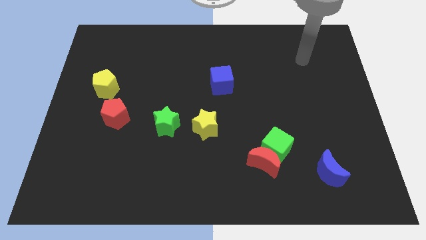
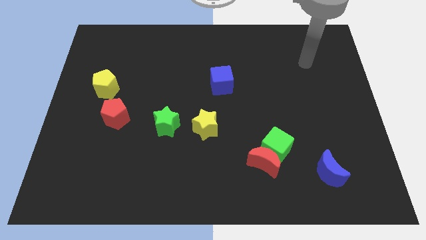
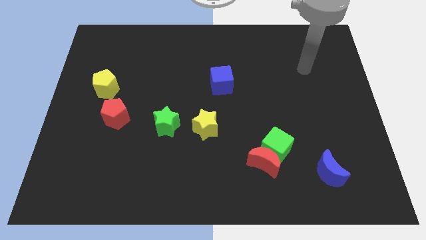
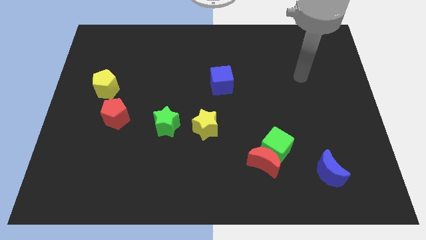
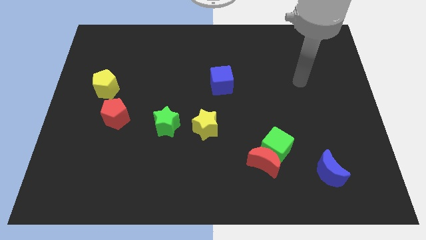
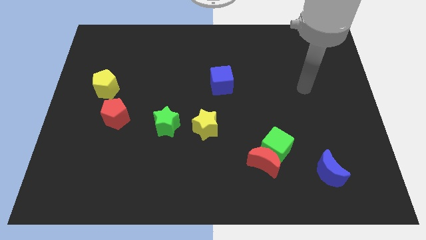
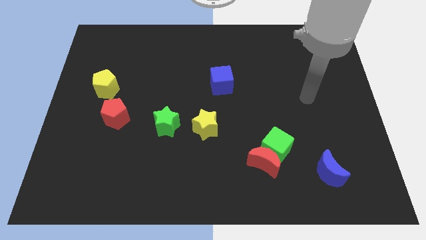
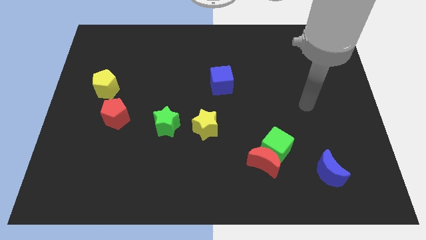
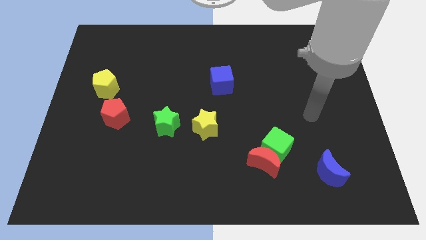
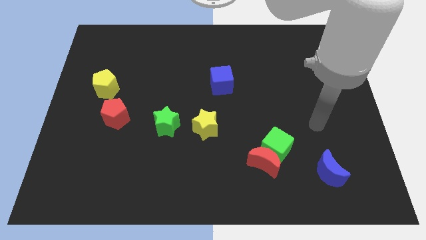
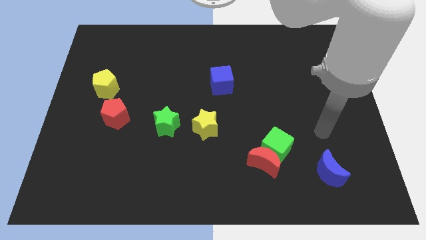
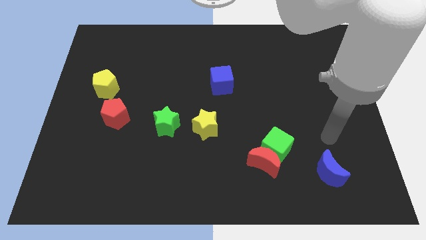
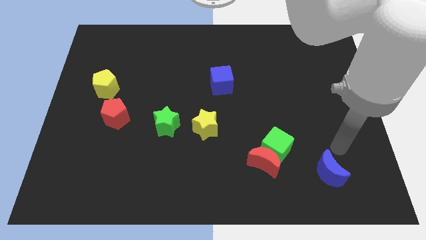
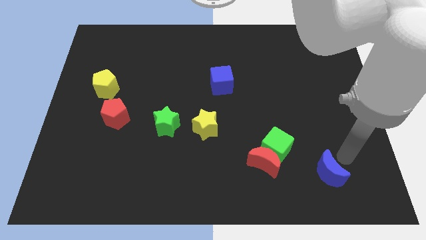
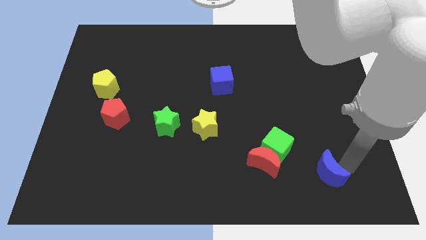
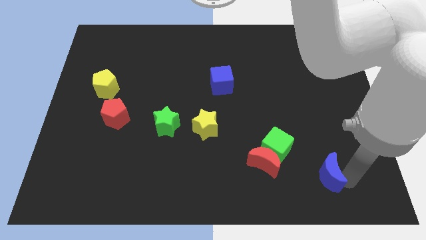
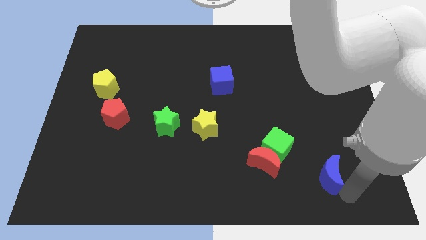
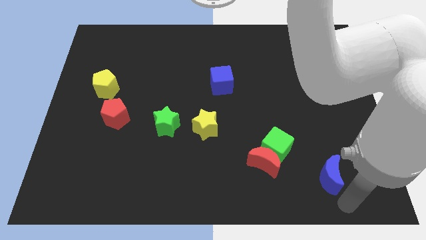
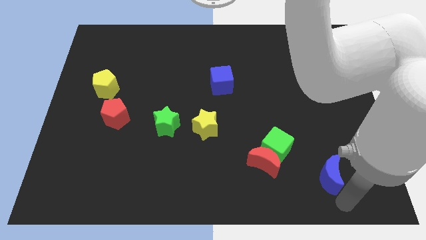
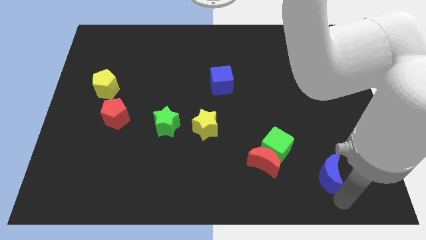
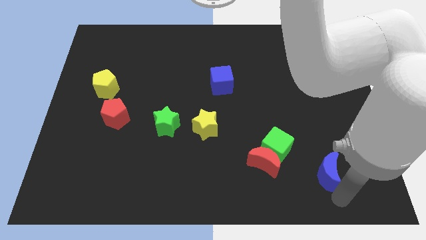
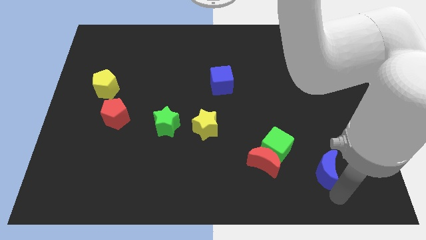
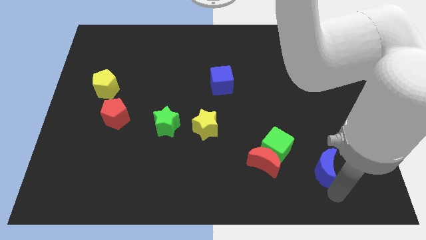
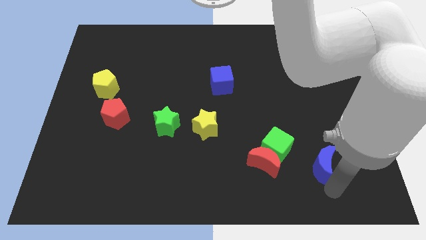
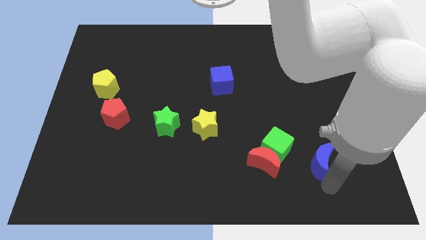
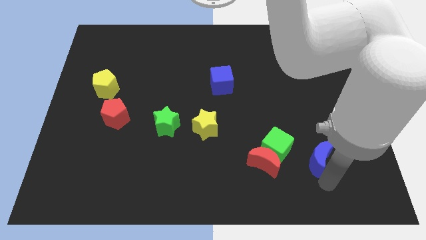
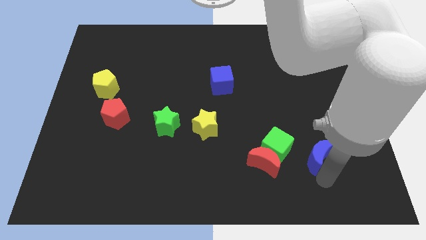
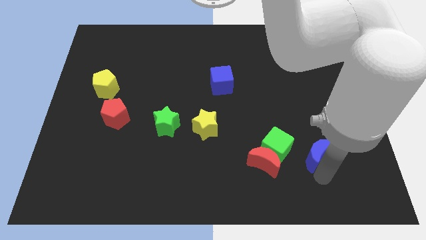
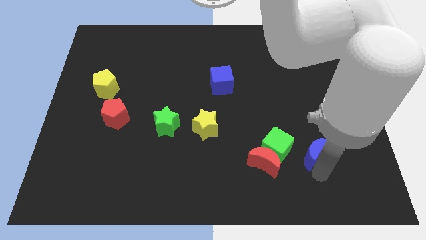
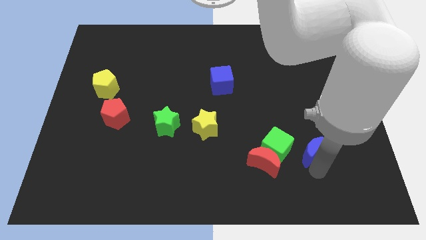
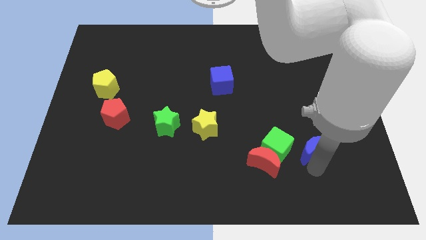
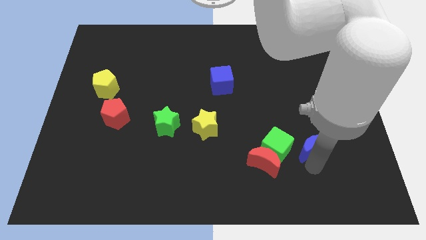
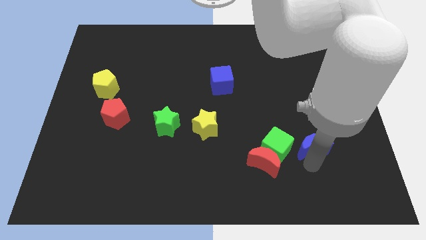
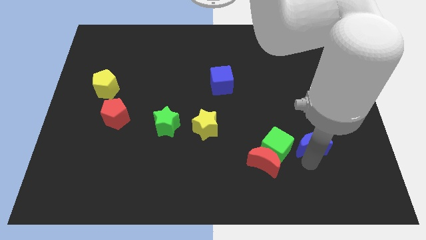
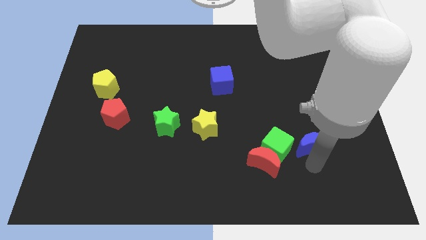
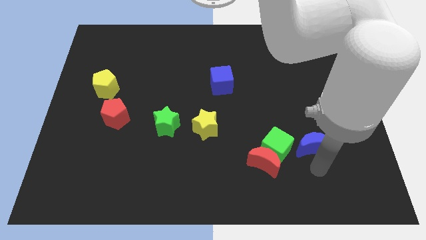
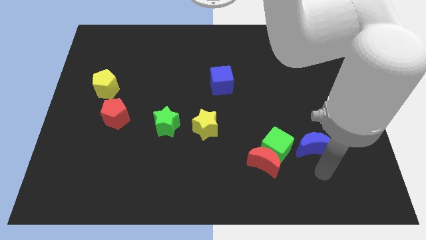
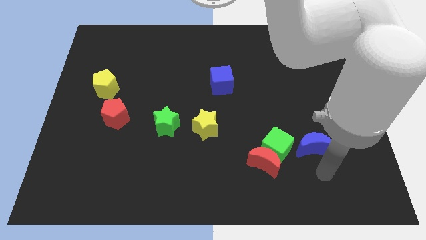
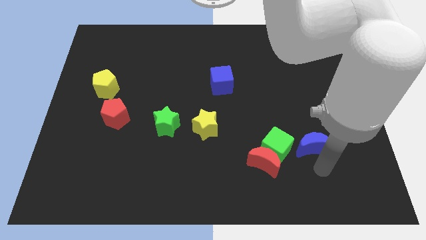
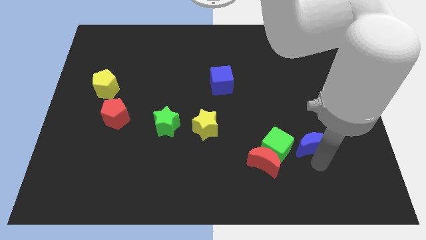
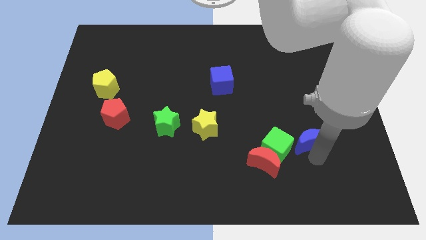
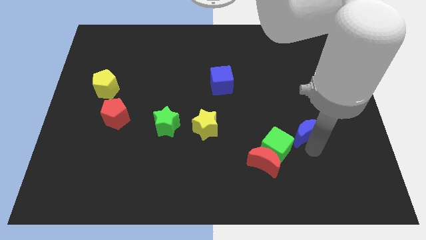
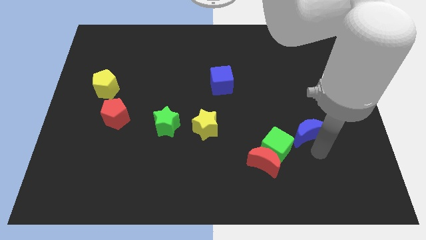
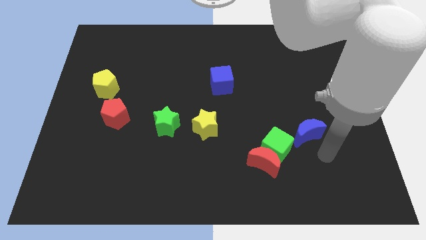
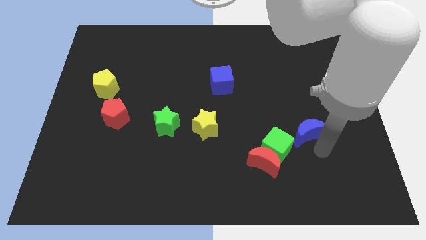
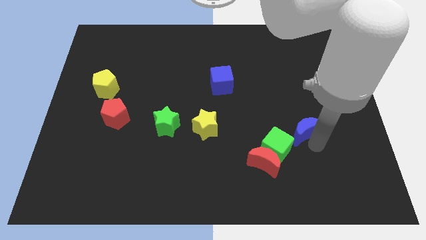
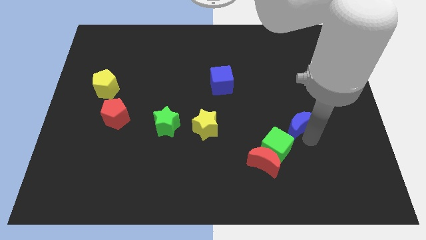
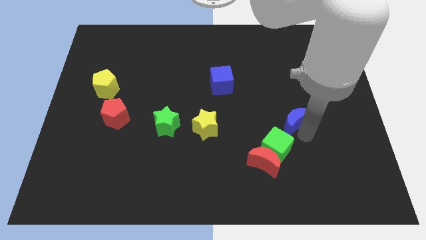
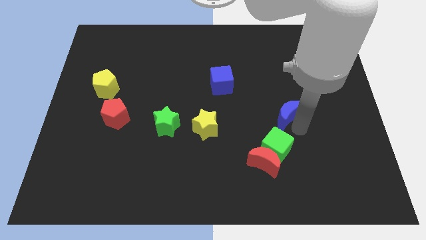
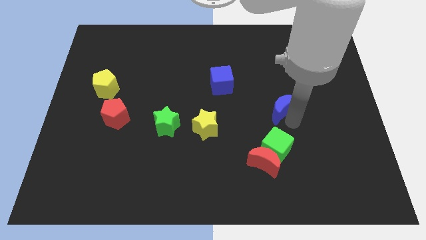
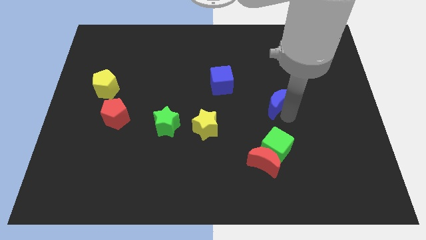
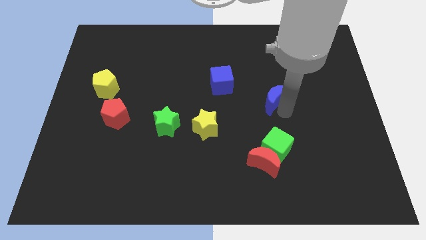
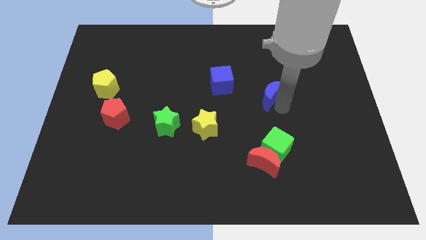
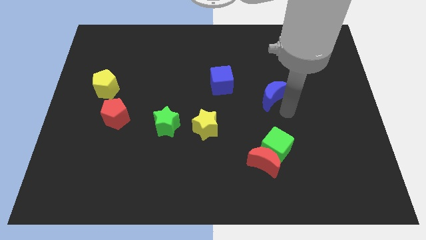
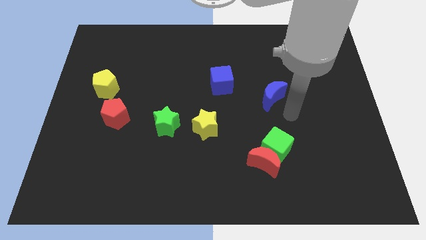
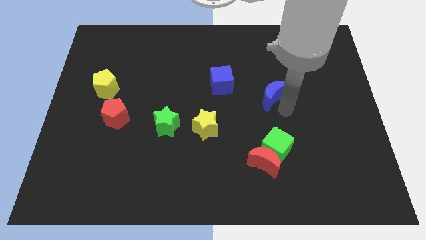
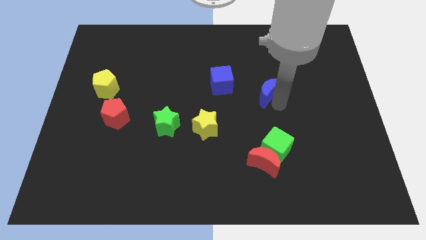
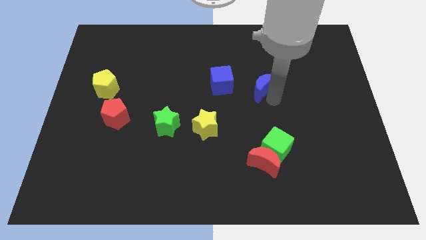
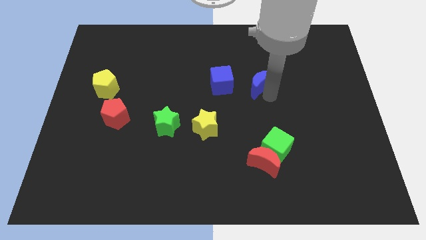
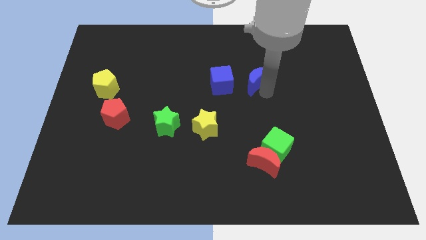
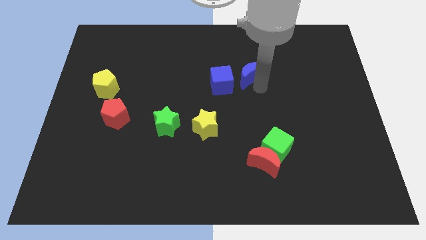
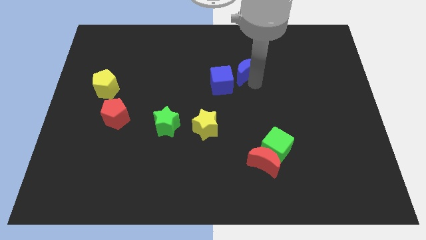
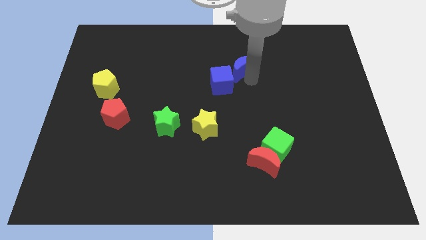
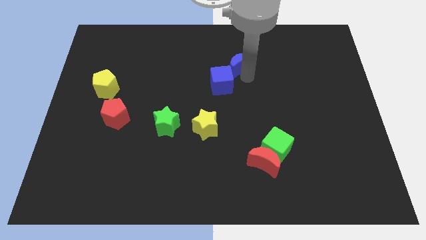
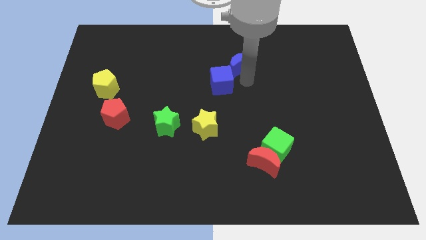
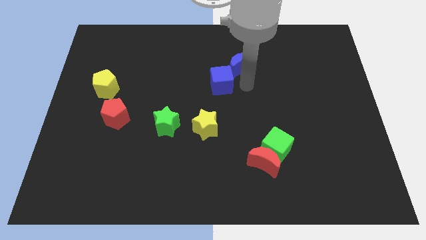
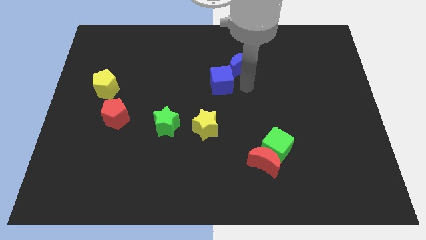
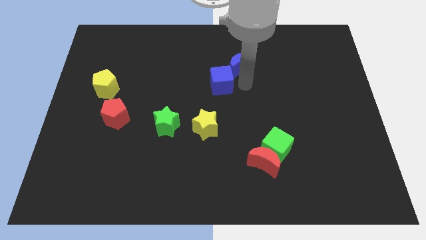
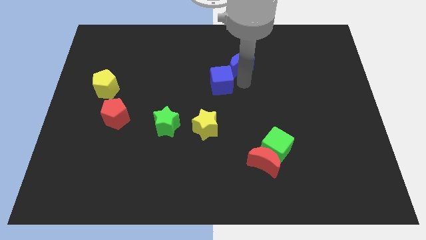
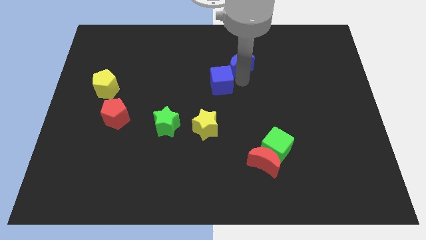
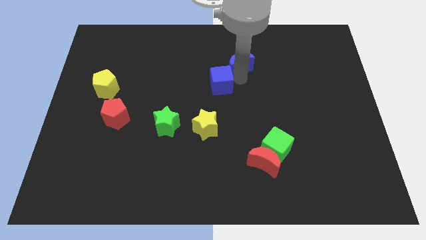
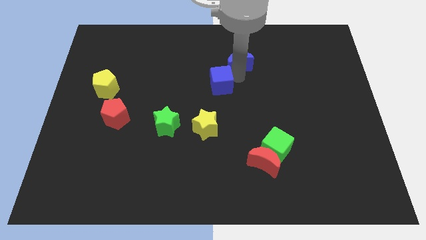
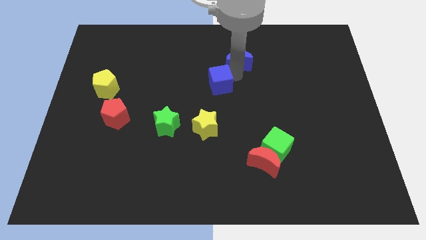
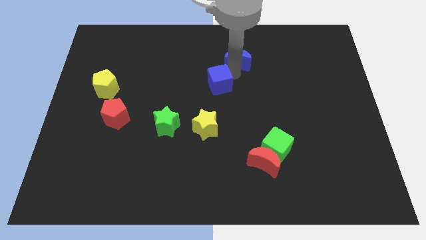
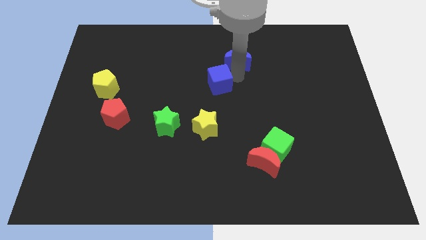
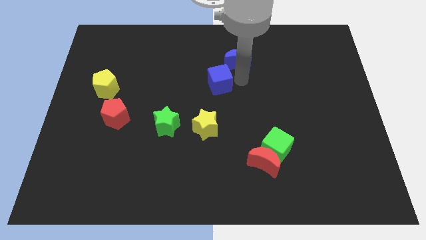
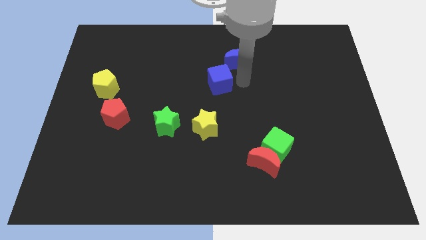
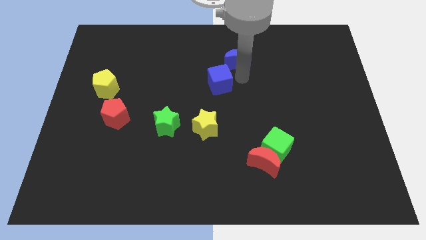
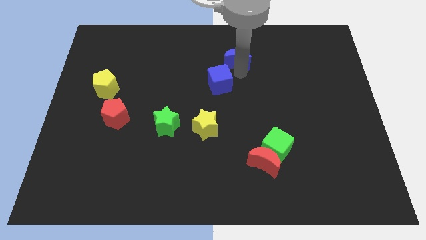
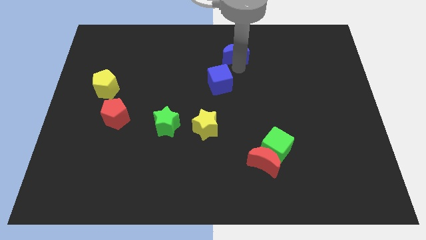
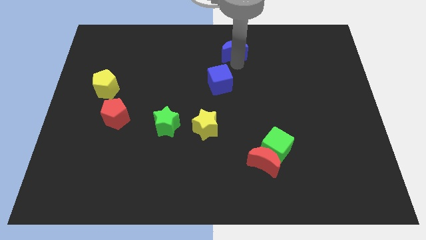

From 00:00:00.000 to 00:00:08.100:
move the blue moon to the top side
